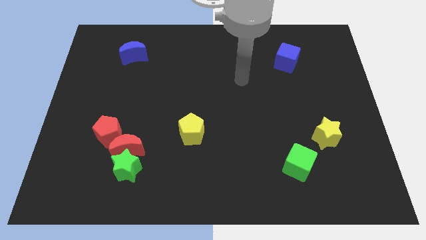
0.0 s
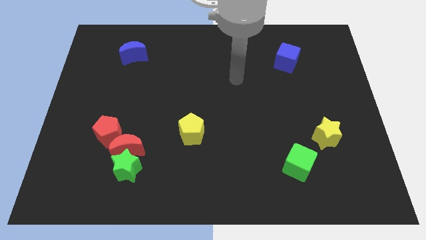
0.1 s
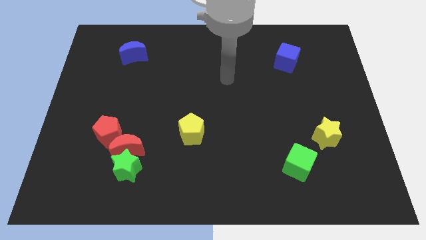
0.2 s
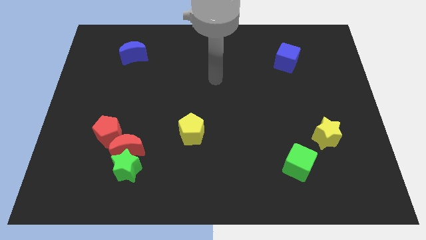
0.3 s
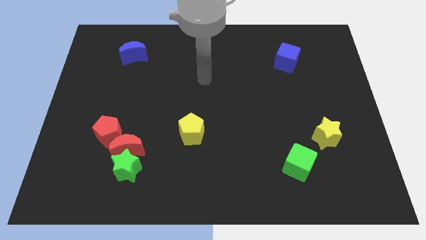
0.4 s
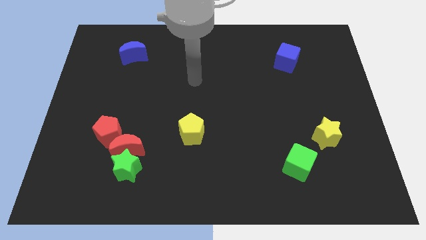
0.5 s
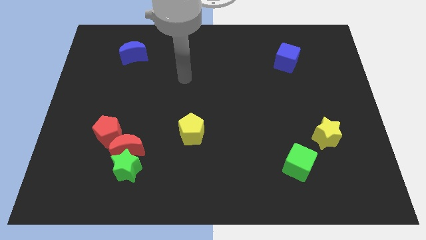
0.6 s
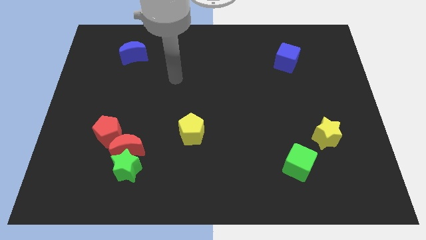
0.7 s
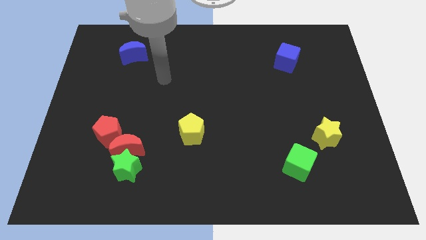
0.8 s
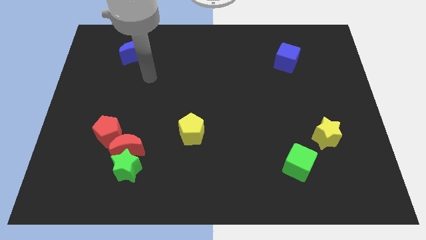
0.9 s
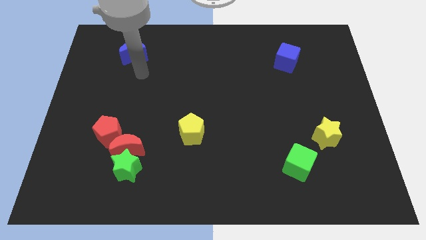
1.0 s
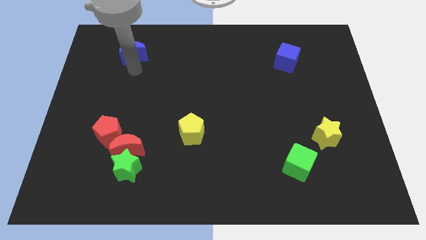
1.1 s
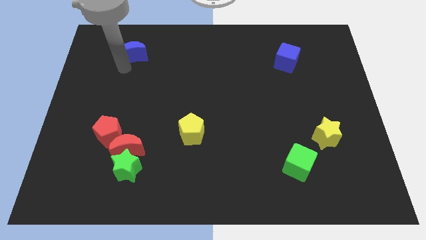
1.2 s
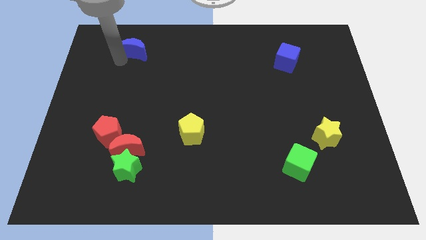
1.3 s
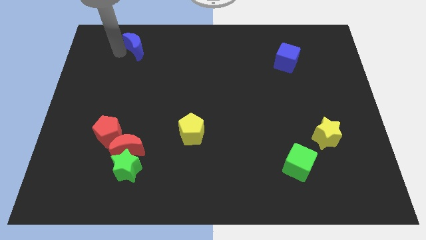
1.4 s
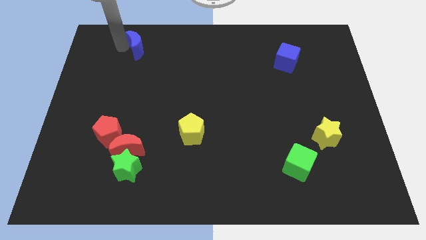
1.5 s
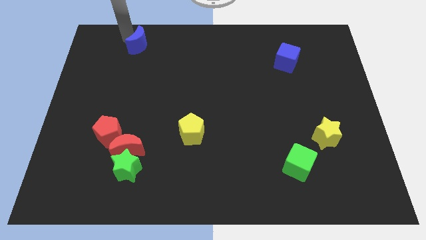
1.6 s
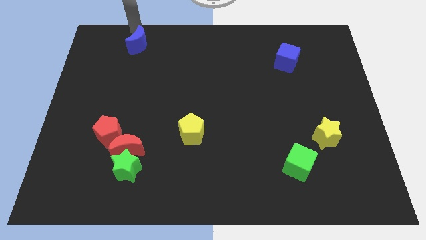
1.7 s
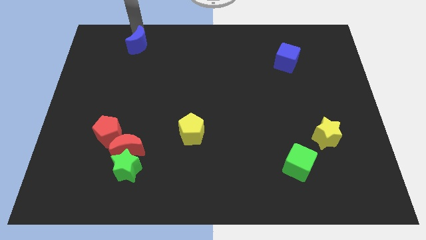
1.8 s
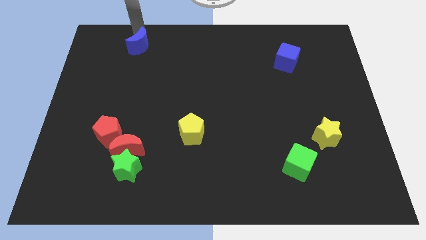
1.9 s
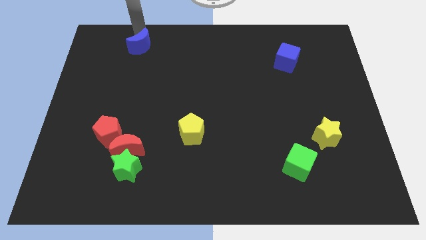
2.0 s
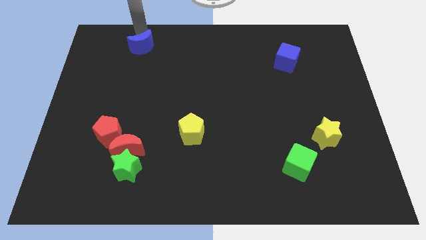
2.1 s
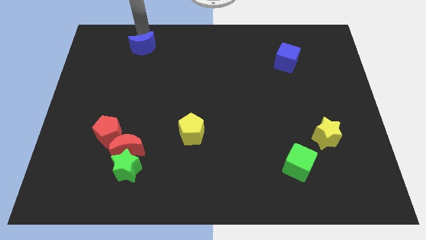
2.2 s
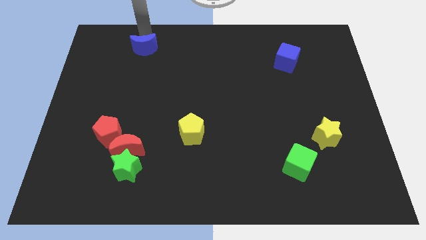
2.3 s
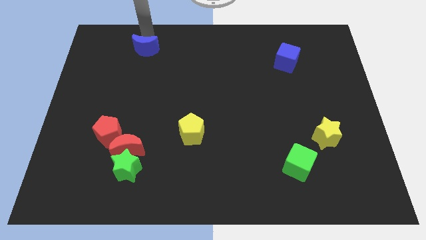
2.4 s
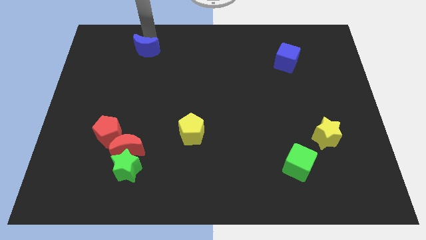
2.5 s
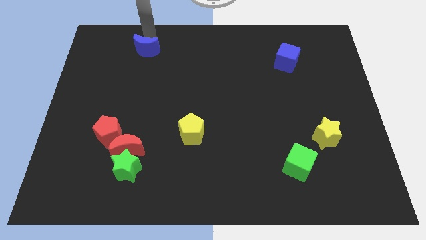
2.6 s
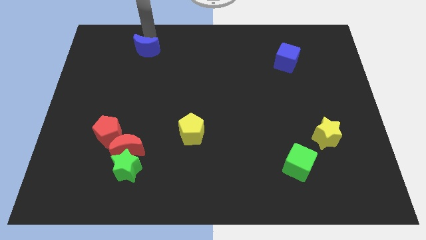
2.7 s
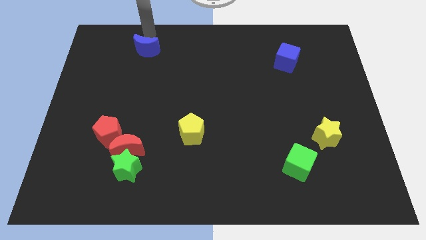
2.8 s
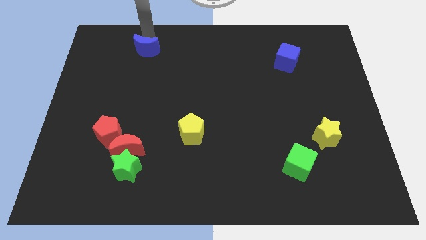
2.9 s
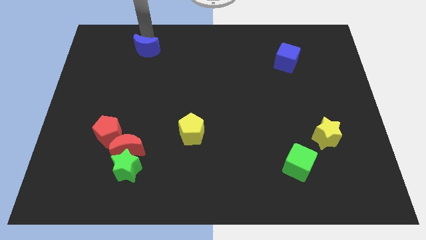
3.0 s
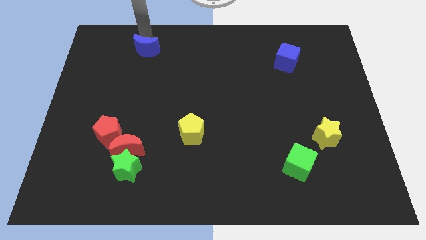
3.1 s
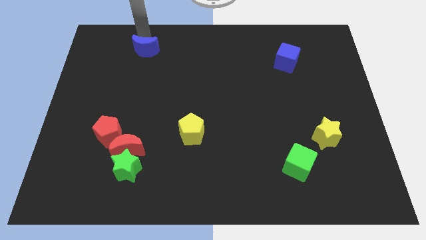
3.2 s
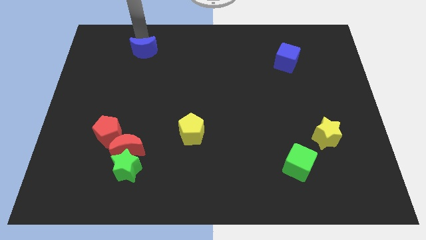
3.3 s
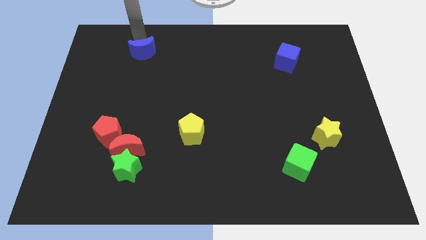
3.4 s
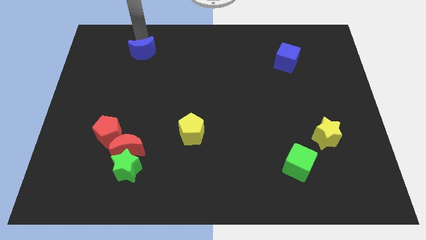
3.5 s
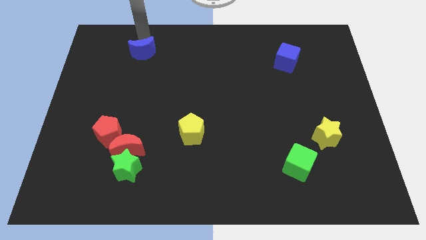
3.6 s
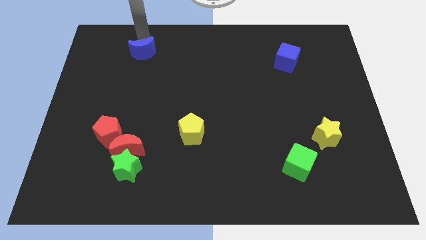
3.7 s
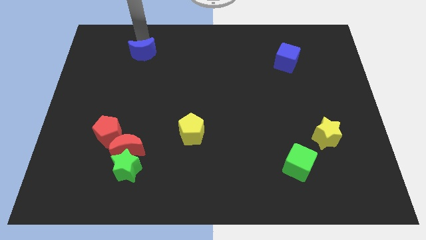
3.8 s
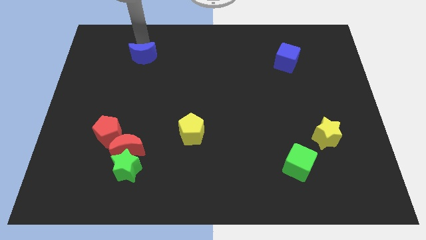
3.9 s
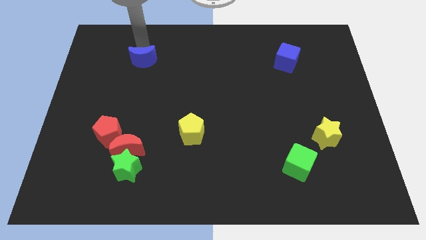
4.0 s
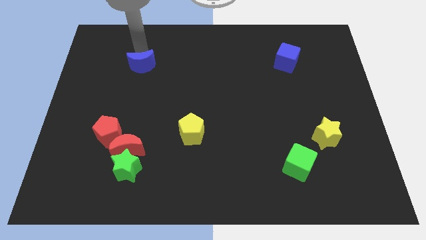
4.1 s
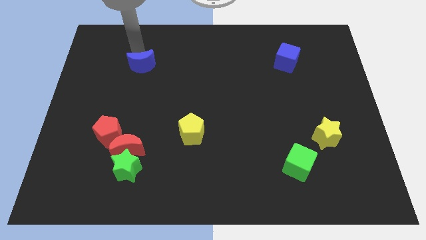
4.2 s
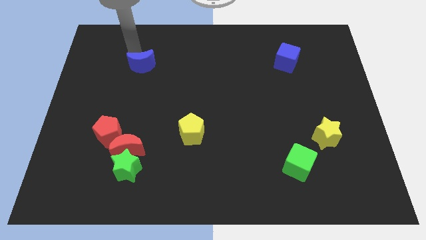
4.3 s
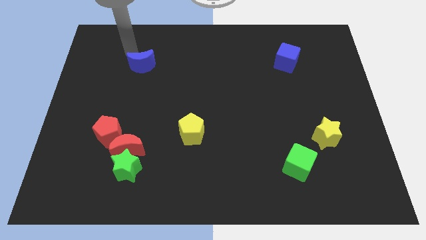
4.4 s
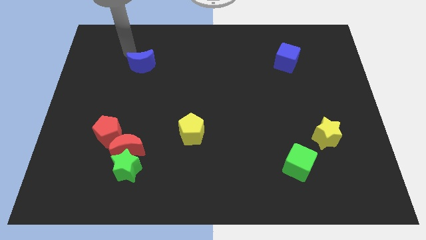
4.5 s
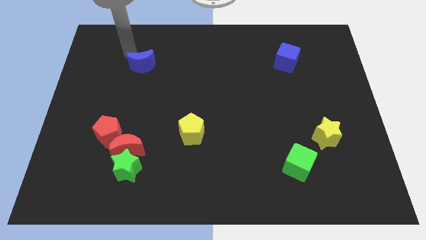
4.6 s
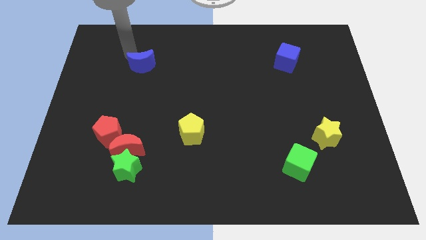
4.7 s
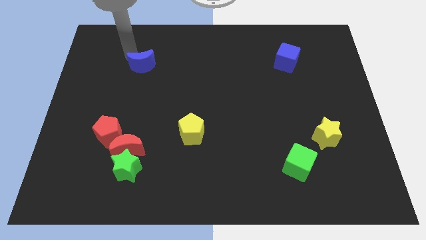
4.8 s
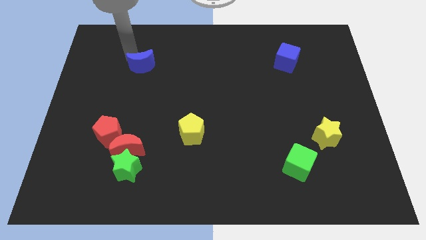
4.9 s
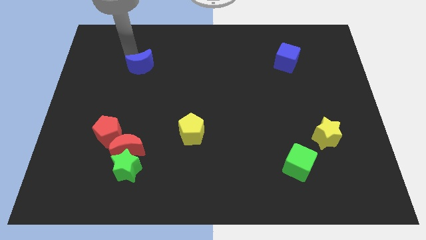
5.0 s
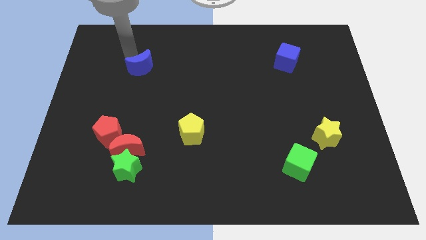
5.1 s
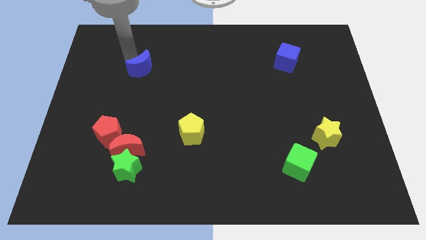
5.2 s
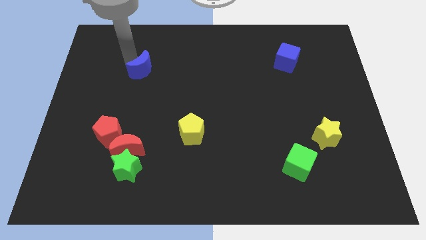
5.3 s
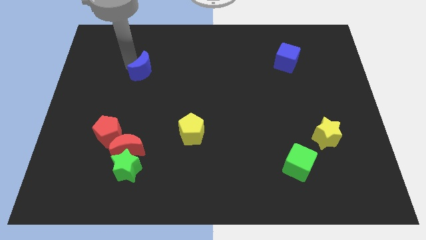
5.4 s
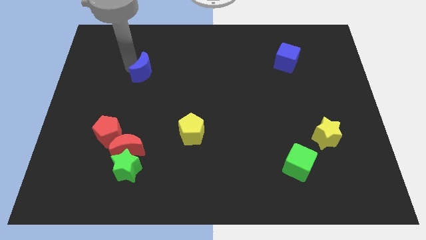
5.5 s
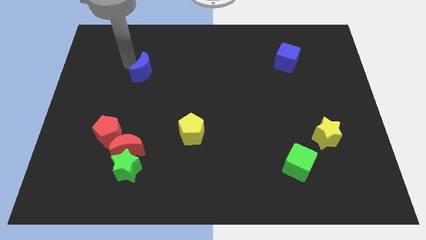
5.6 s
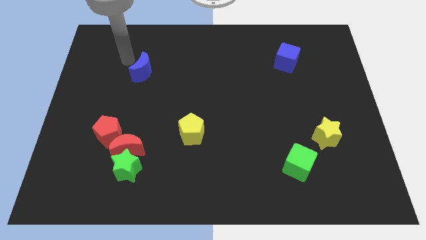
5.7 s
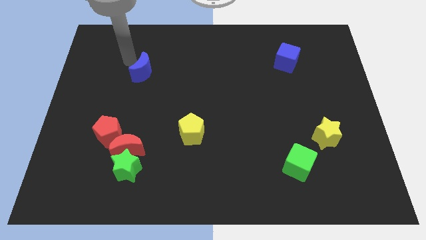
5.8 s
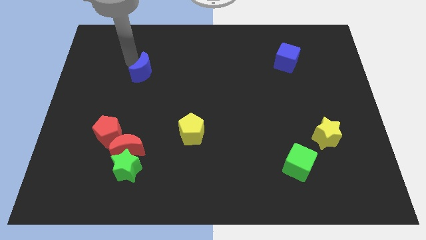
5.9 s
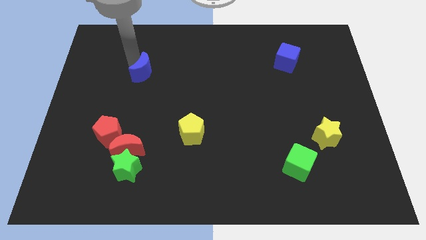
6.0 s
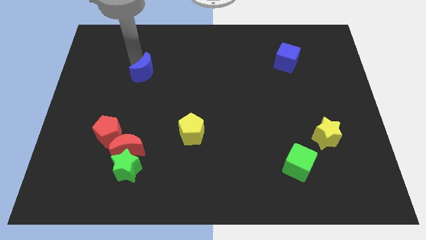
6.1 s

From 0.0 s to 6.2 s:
move the blue moon diagonally downwards and right a little bit

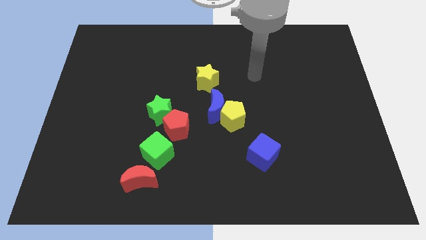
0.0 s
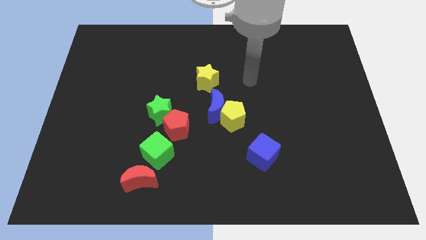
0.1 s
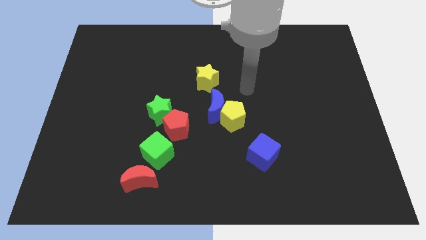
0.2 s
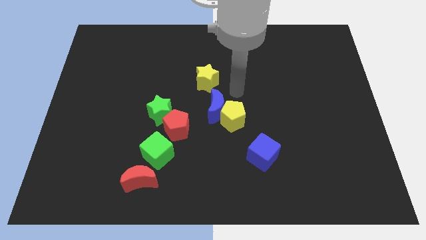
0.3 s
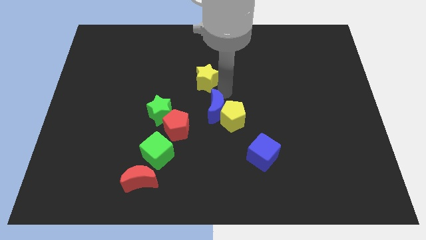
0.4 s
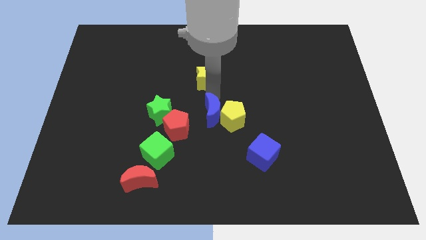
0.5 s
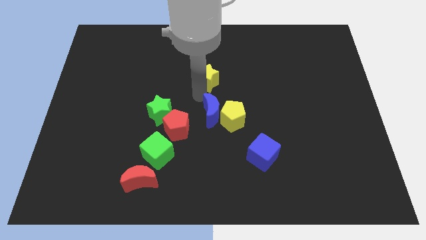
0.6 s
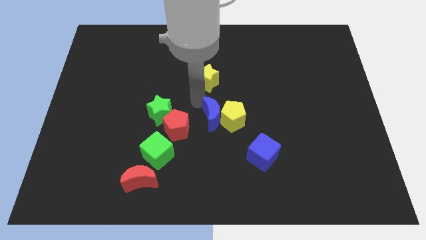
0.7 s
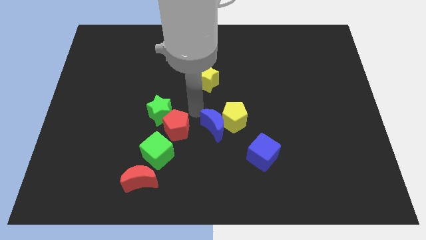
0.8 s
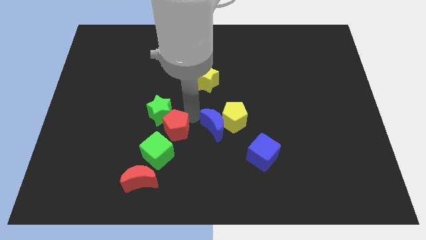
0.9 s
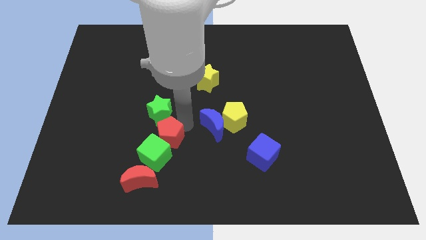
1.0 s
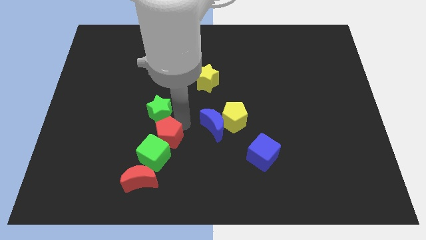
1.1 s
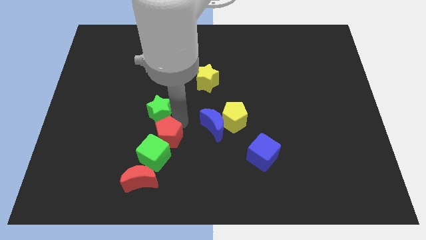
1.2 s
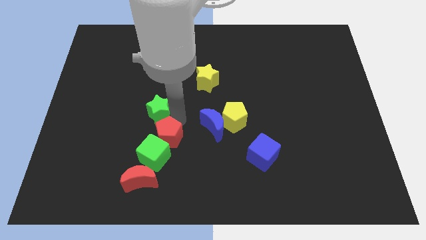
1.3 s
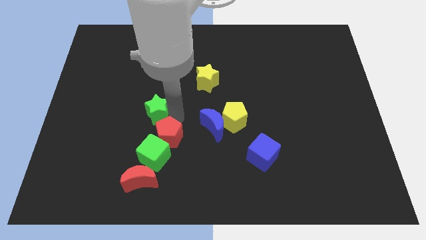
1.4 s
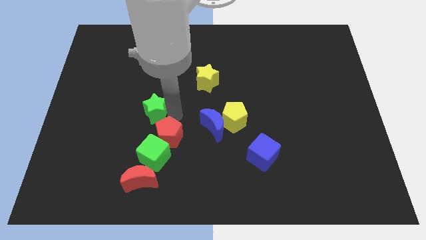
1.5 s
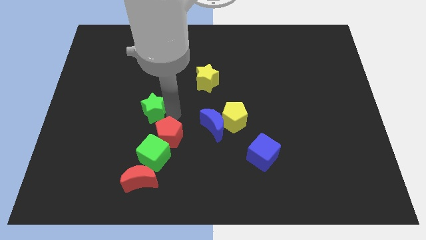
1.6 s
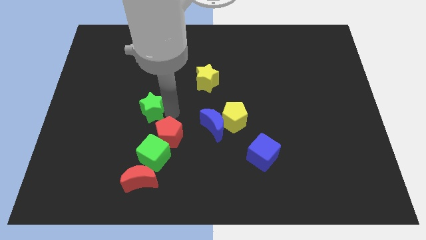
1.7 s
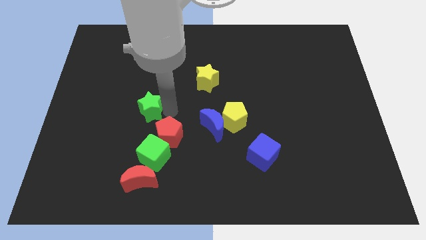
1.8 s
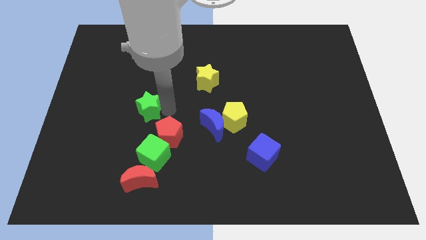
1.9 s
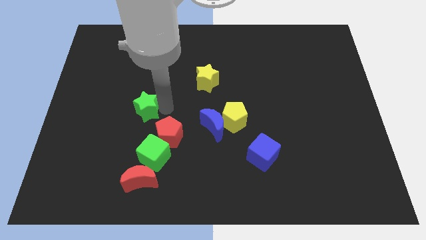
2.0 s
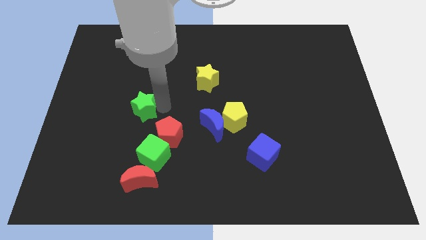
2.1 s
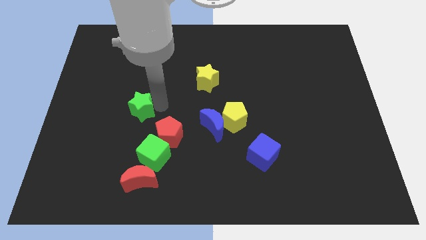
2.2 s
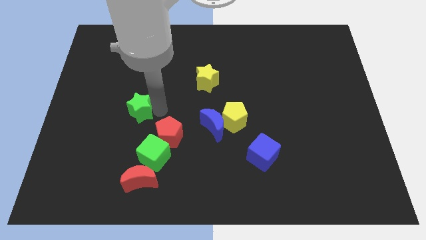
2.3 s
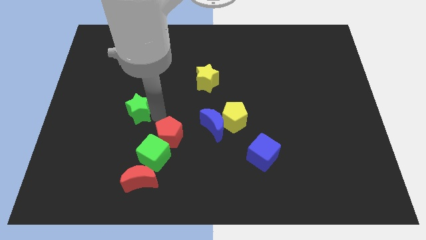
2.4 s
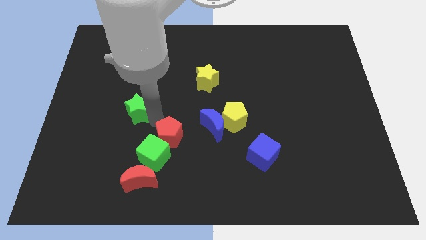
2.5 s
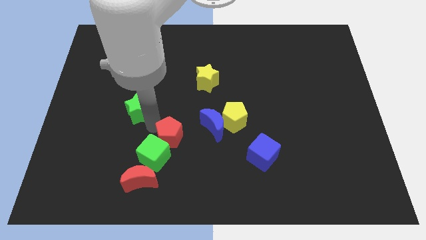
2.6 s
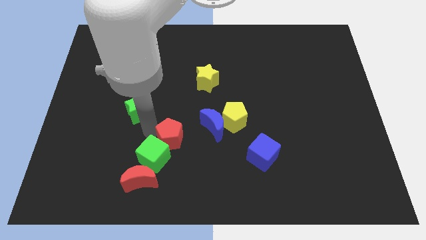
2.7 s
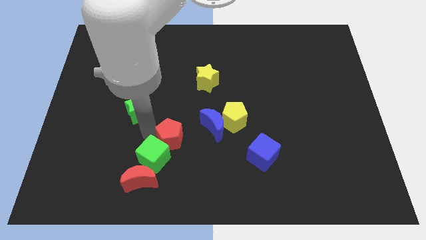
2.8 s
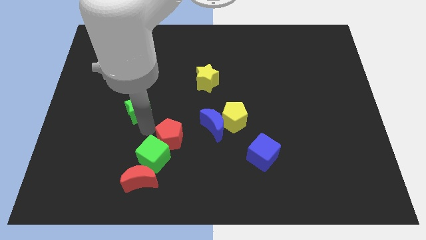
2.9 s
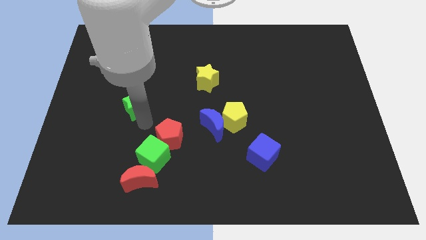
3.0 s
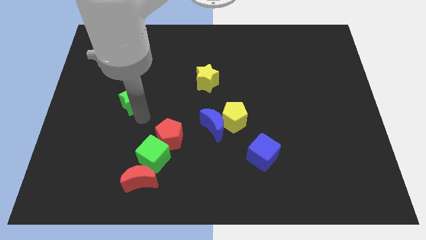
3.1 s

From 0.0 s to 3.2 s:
push the green star diagonally upwards and to the left slightly
